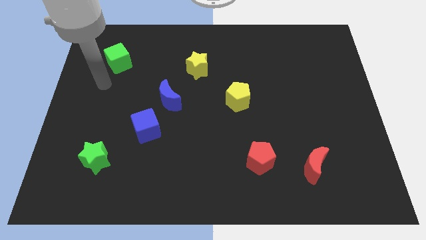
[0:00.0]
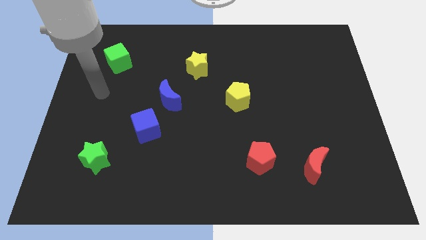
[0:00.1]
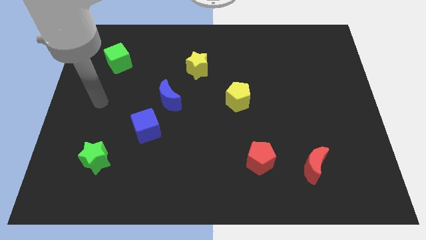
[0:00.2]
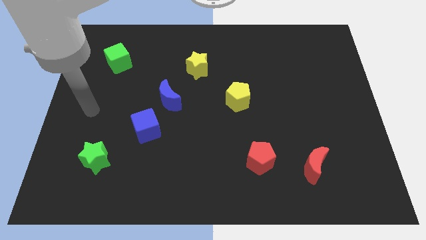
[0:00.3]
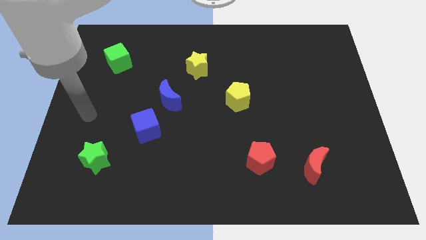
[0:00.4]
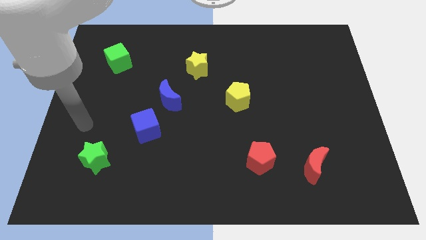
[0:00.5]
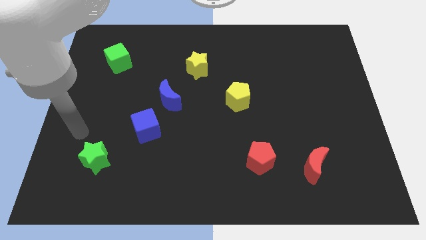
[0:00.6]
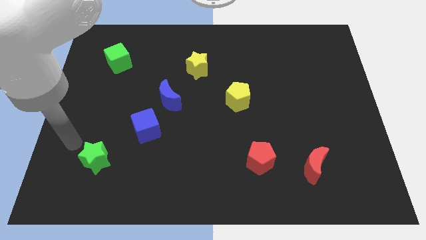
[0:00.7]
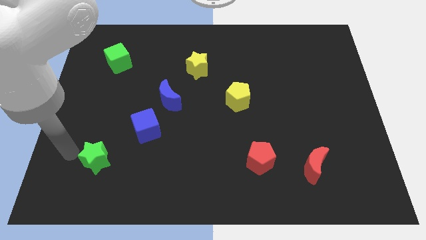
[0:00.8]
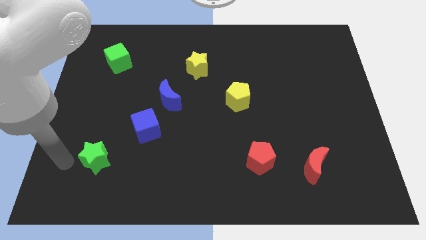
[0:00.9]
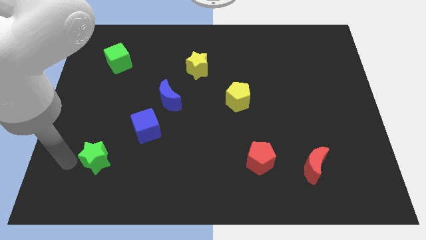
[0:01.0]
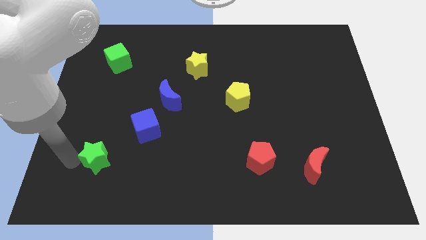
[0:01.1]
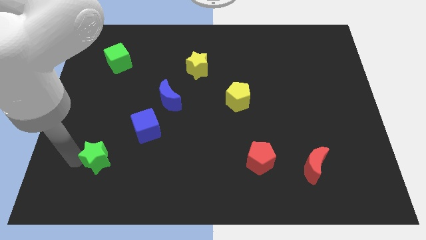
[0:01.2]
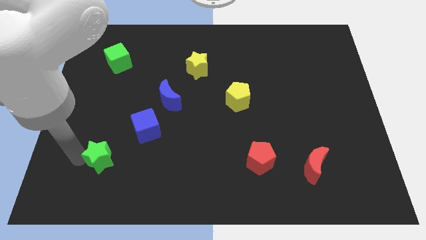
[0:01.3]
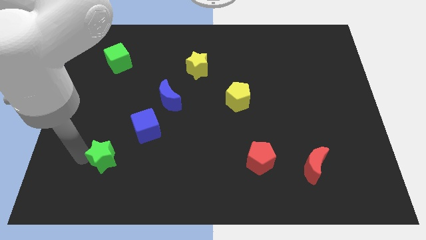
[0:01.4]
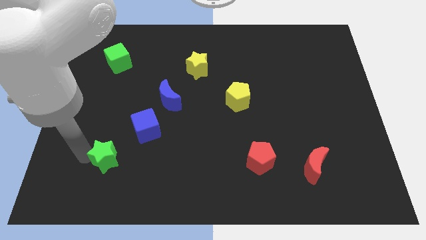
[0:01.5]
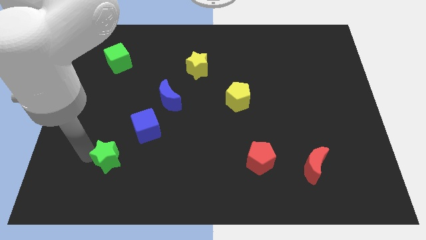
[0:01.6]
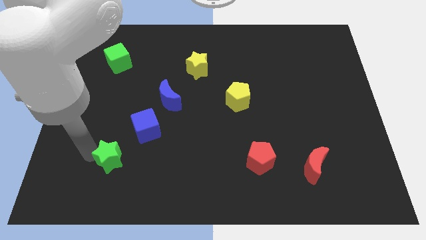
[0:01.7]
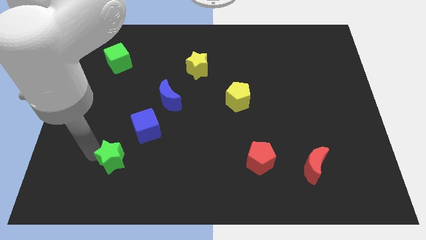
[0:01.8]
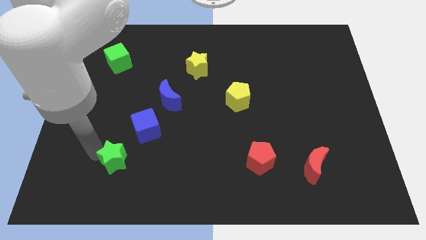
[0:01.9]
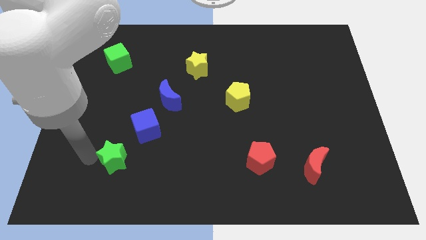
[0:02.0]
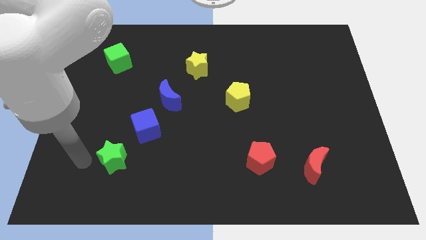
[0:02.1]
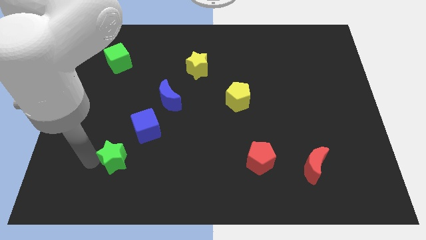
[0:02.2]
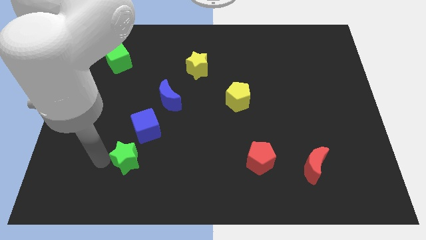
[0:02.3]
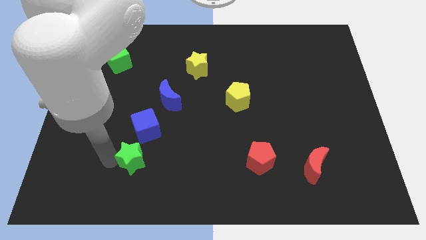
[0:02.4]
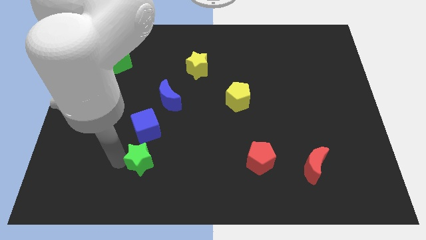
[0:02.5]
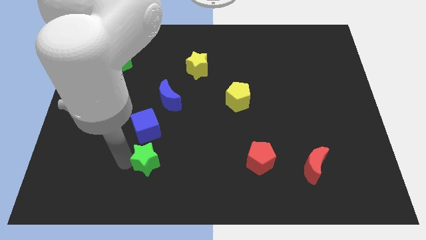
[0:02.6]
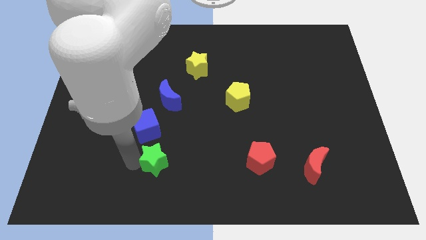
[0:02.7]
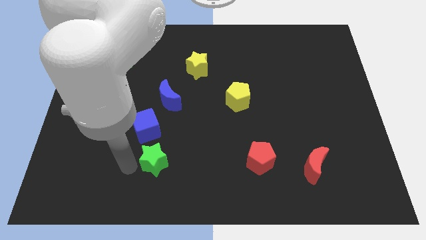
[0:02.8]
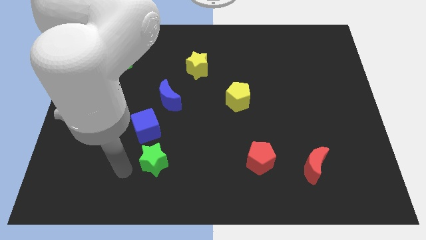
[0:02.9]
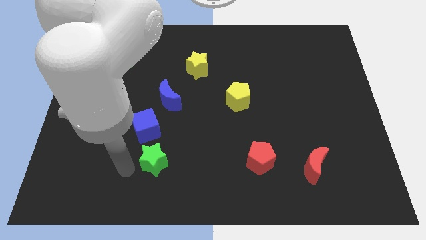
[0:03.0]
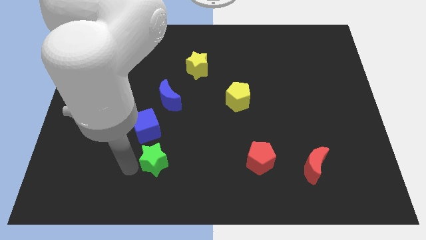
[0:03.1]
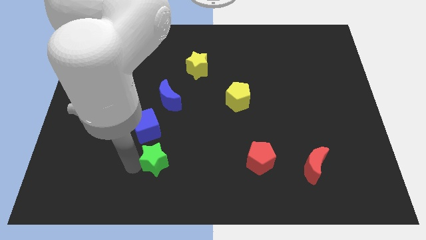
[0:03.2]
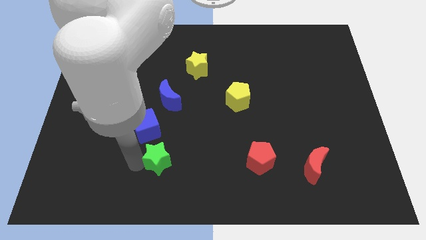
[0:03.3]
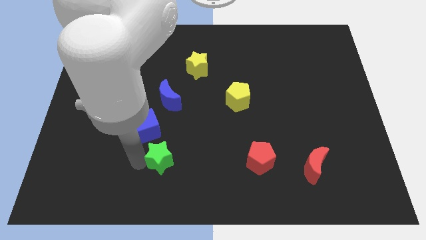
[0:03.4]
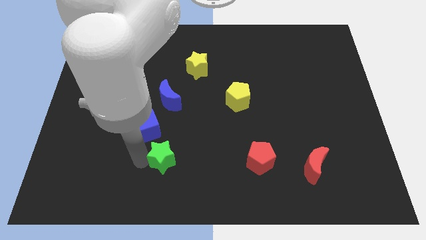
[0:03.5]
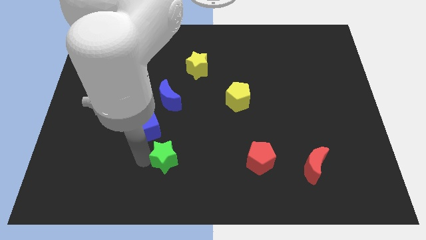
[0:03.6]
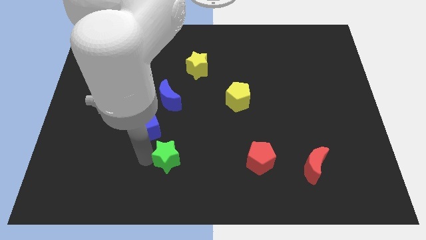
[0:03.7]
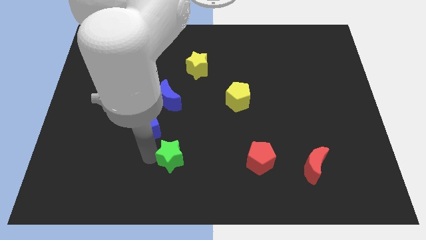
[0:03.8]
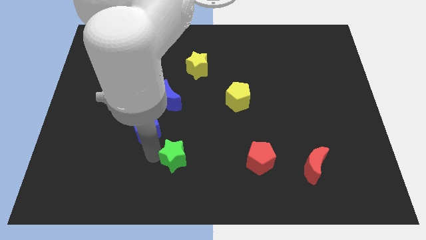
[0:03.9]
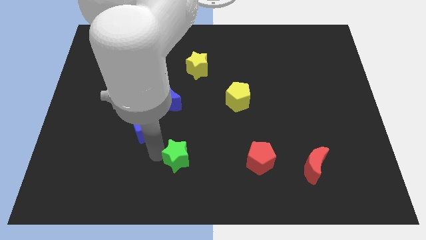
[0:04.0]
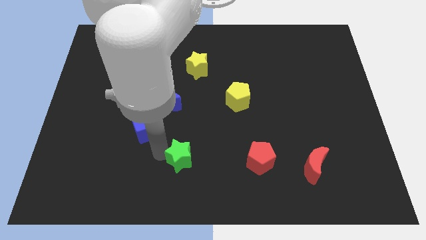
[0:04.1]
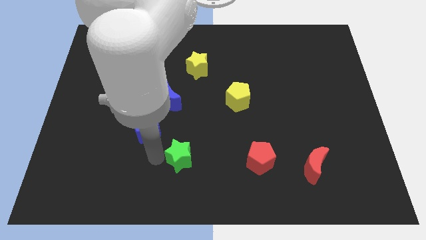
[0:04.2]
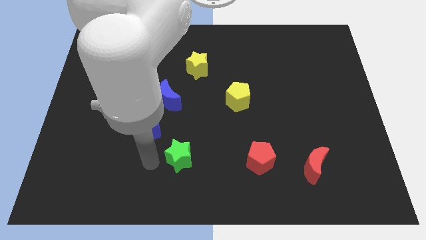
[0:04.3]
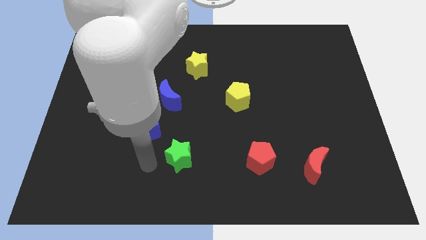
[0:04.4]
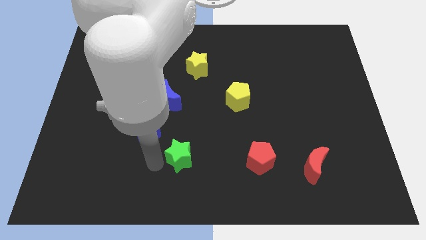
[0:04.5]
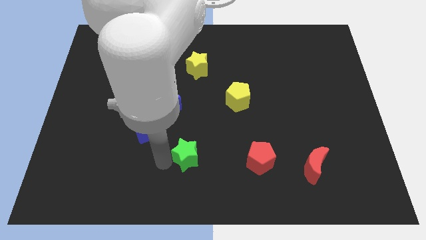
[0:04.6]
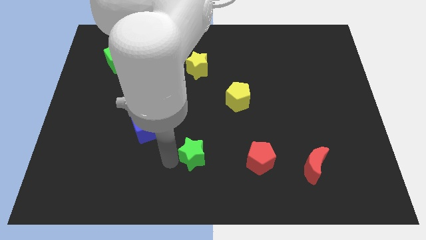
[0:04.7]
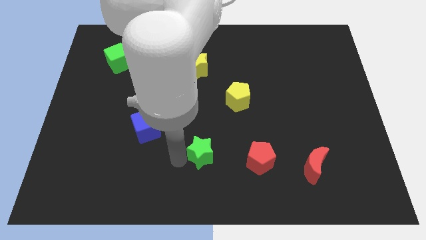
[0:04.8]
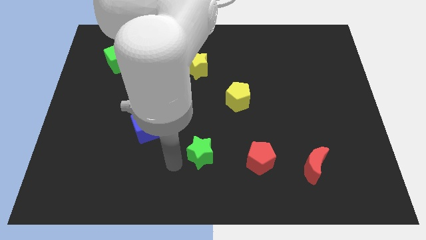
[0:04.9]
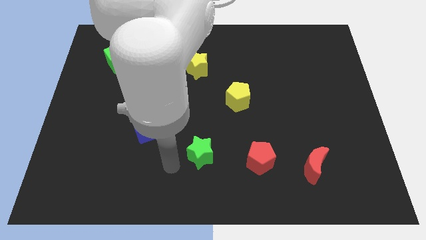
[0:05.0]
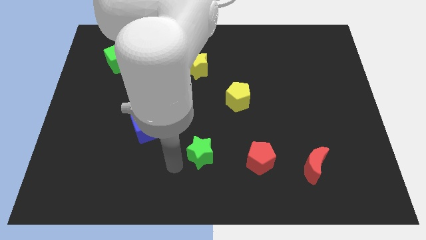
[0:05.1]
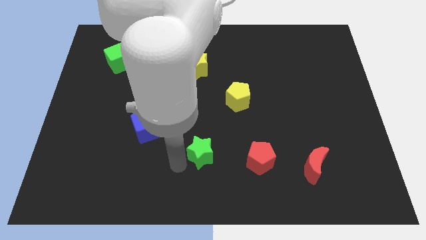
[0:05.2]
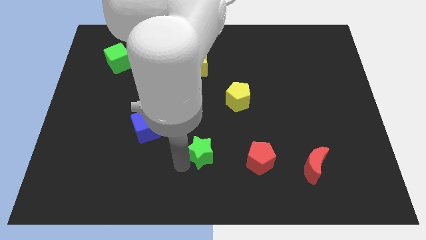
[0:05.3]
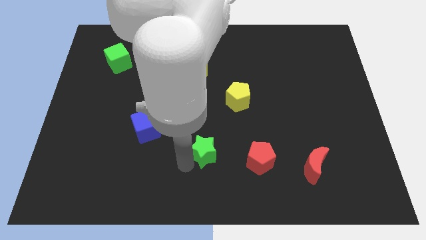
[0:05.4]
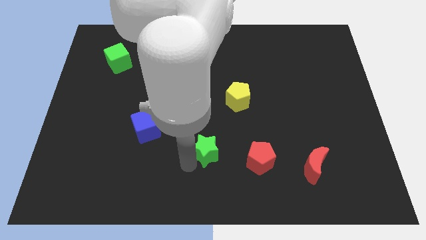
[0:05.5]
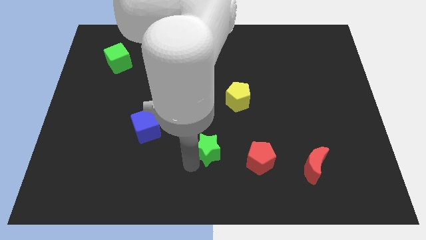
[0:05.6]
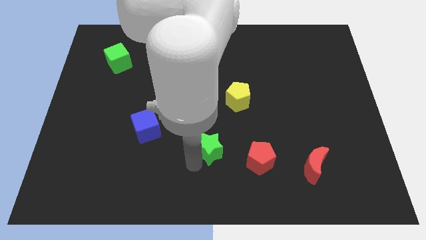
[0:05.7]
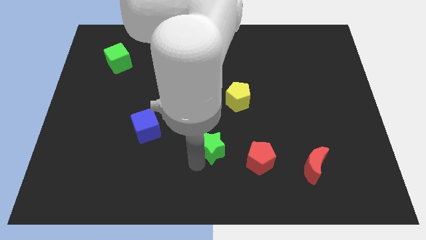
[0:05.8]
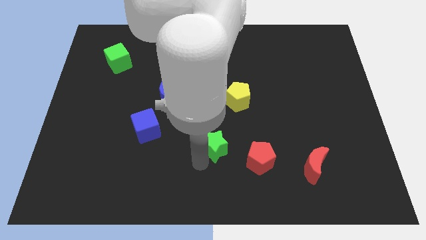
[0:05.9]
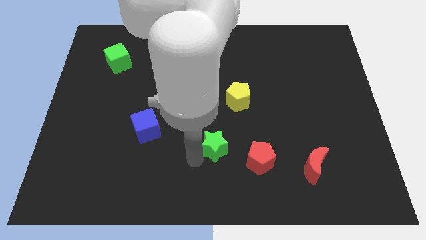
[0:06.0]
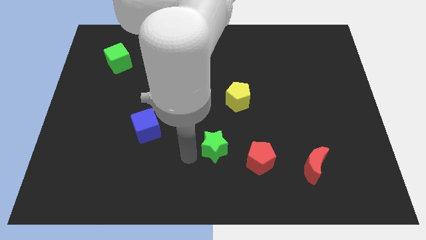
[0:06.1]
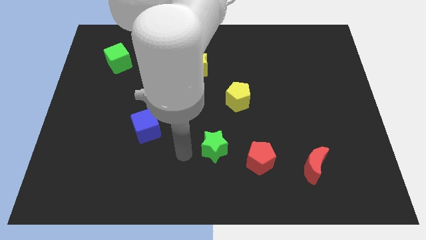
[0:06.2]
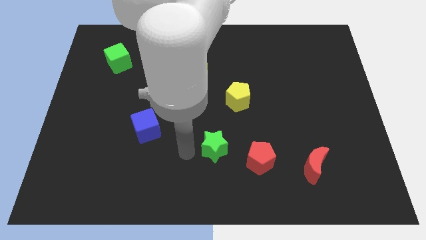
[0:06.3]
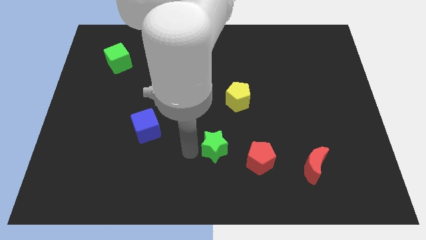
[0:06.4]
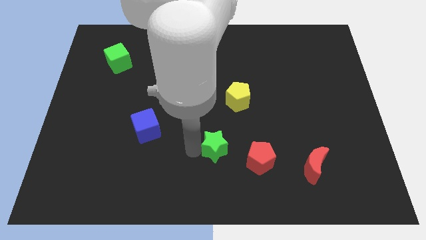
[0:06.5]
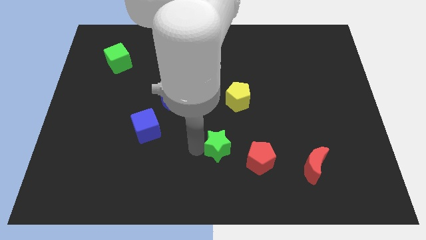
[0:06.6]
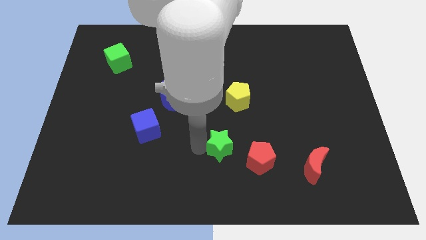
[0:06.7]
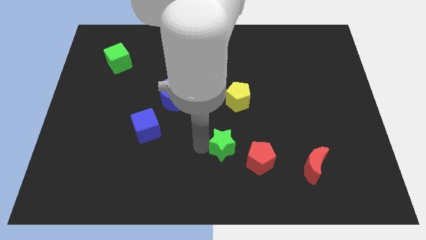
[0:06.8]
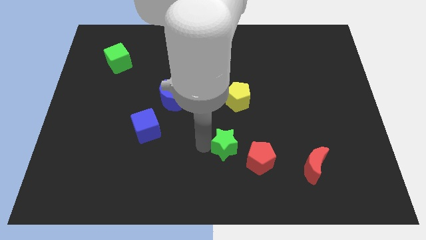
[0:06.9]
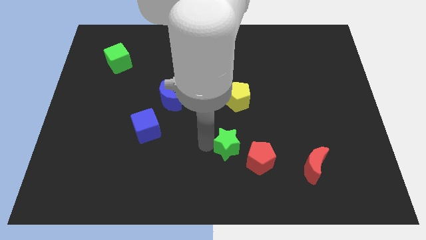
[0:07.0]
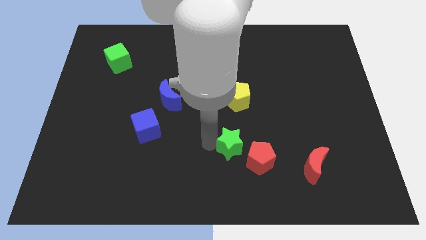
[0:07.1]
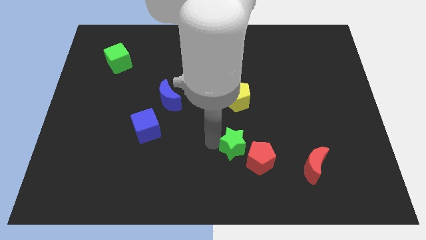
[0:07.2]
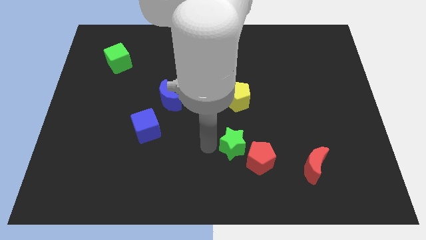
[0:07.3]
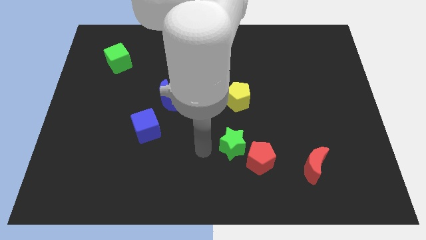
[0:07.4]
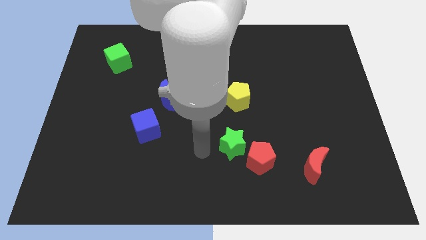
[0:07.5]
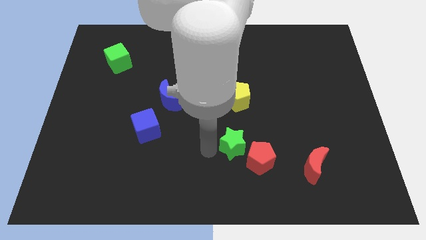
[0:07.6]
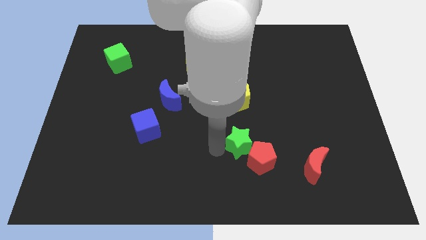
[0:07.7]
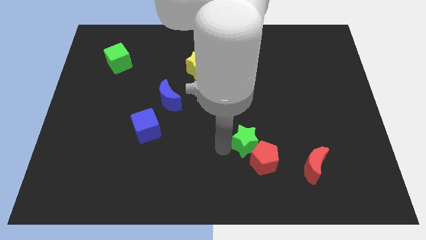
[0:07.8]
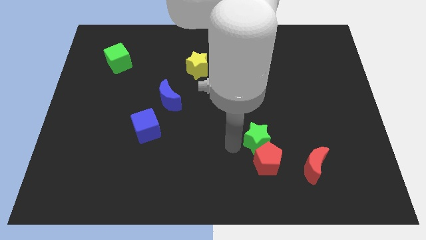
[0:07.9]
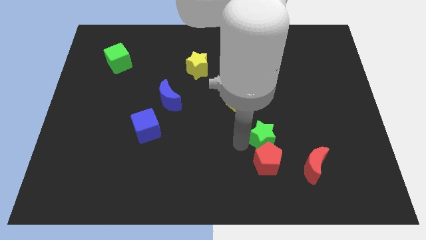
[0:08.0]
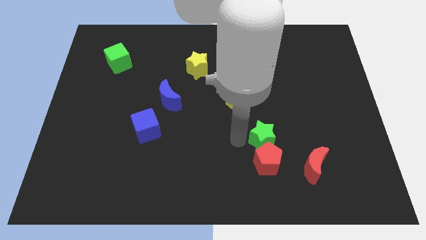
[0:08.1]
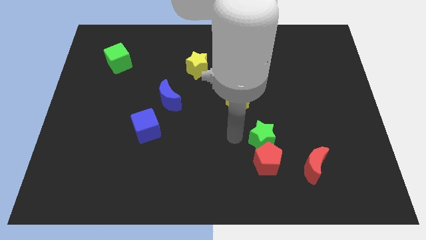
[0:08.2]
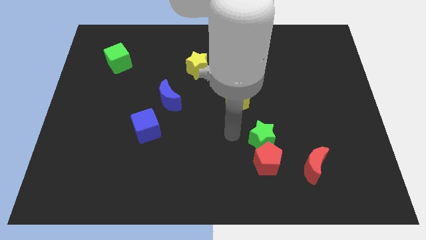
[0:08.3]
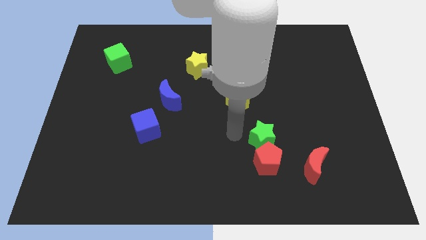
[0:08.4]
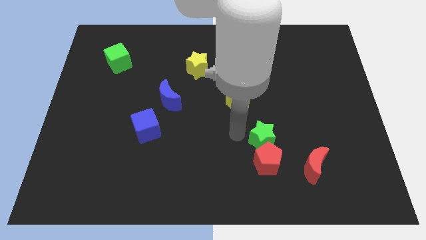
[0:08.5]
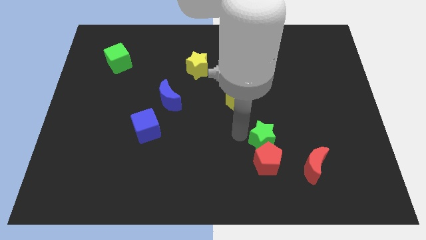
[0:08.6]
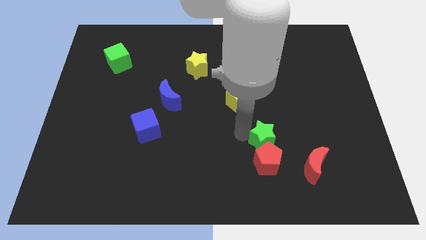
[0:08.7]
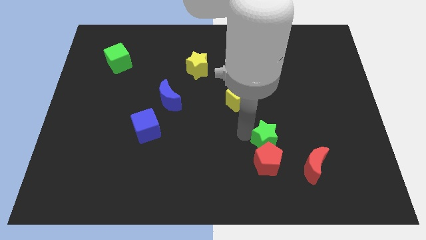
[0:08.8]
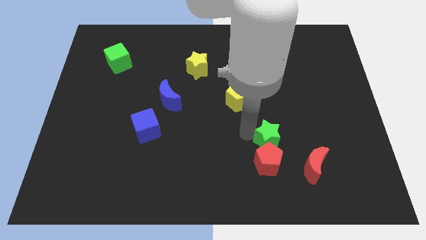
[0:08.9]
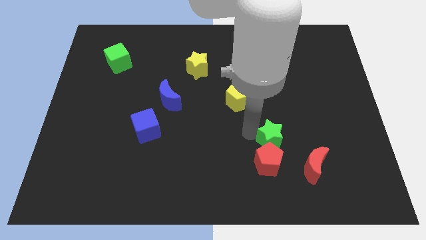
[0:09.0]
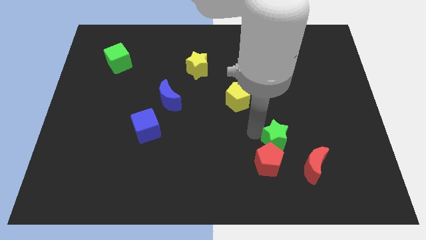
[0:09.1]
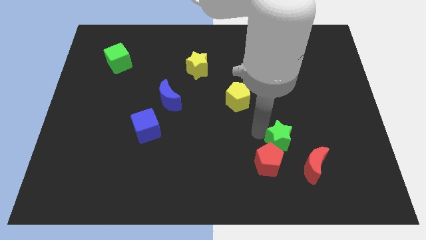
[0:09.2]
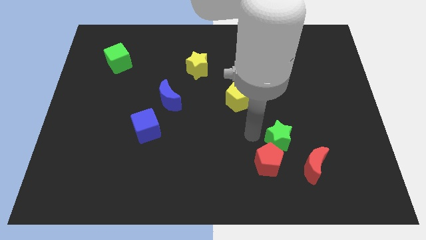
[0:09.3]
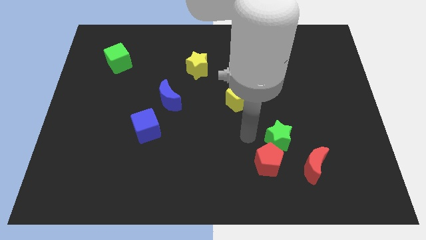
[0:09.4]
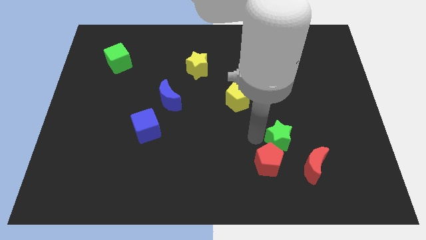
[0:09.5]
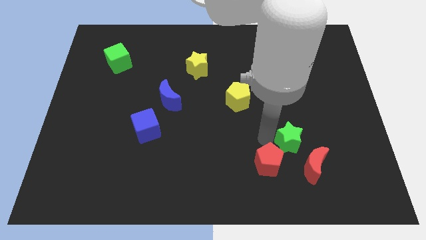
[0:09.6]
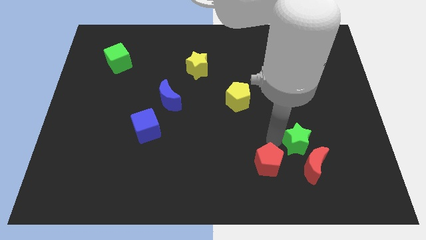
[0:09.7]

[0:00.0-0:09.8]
move the green star just right of the red pentagon
